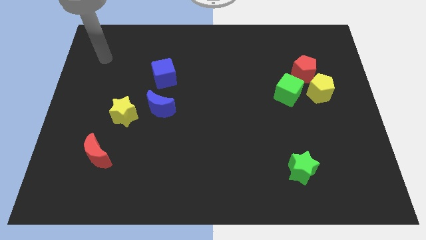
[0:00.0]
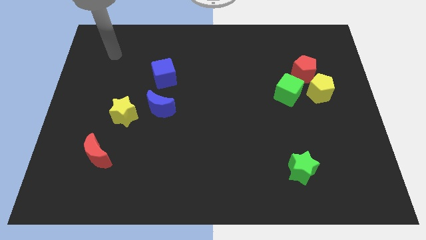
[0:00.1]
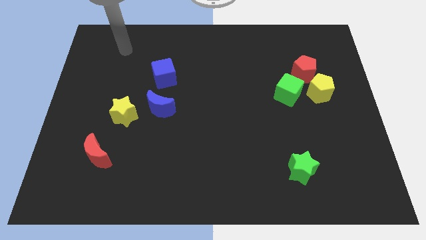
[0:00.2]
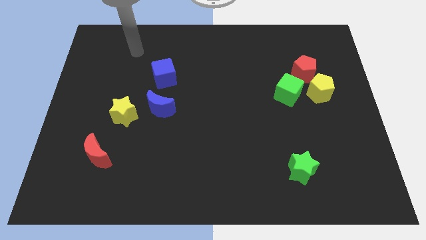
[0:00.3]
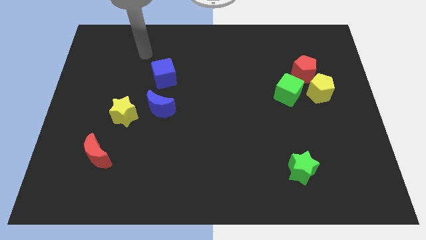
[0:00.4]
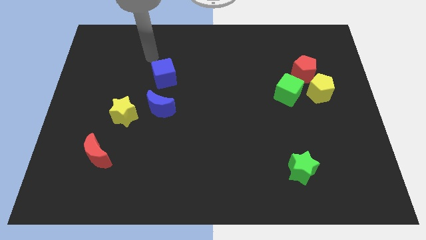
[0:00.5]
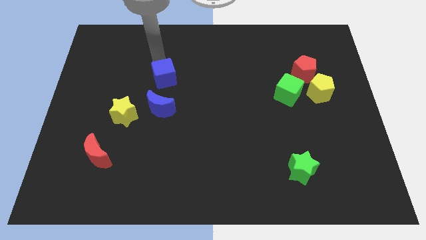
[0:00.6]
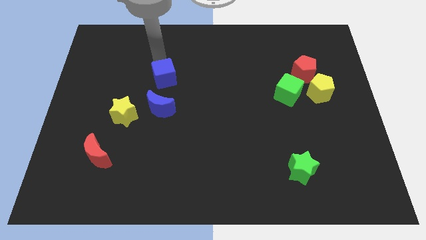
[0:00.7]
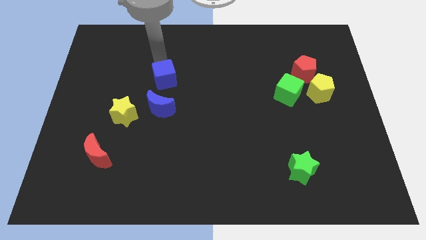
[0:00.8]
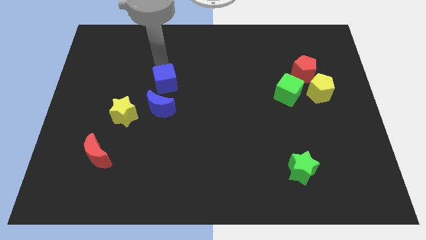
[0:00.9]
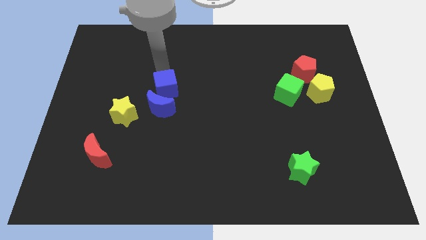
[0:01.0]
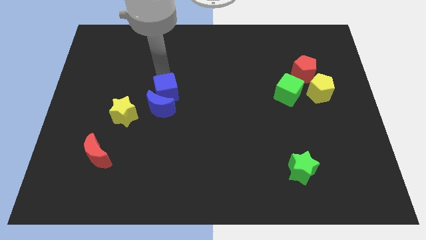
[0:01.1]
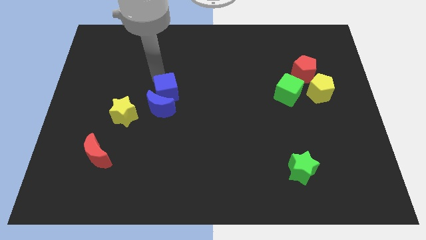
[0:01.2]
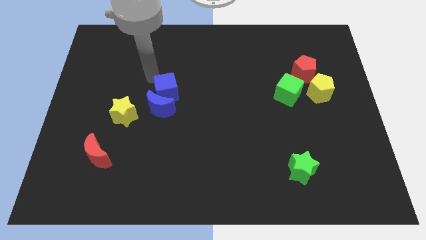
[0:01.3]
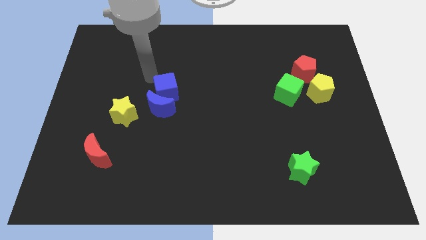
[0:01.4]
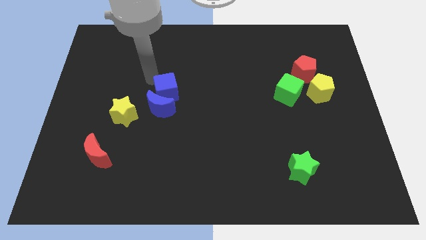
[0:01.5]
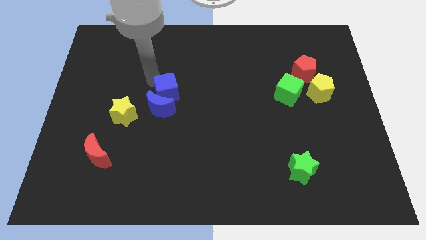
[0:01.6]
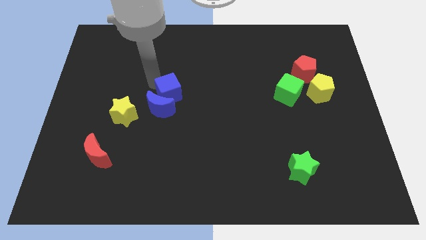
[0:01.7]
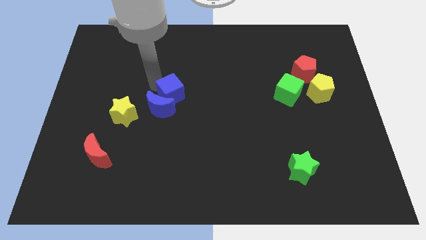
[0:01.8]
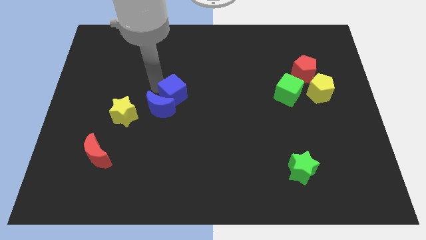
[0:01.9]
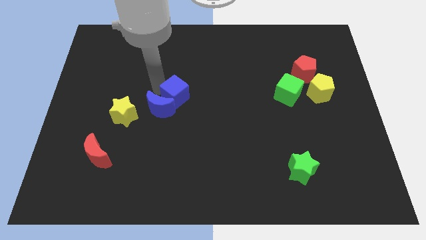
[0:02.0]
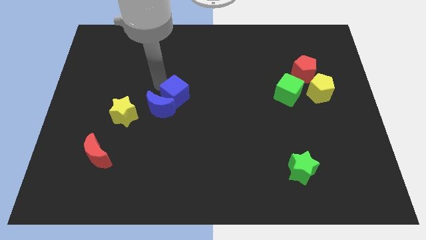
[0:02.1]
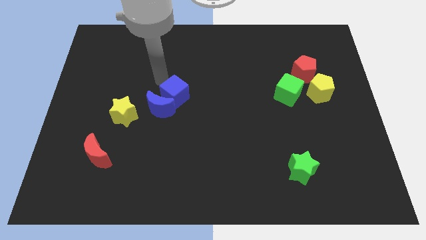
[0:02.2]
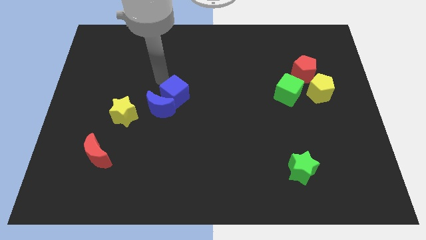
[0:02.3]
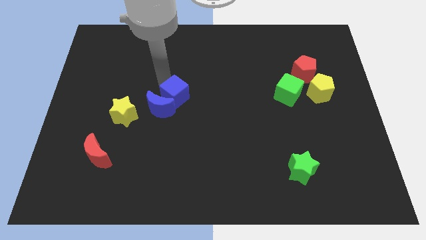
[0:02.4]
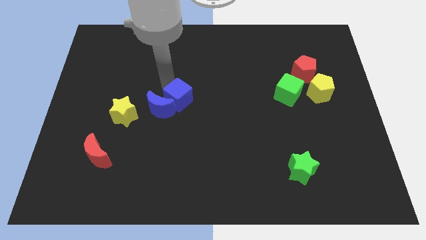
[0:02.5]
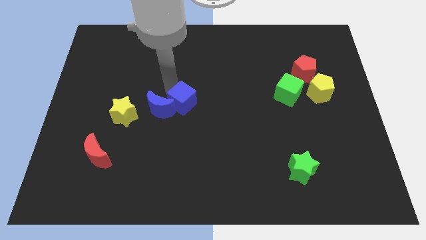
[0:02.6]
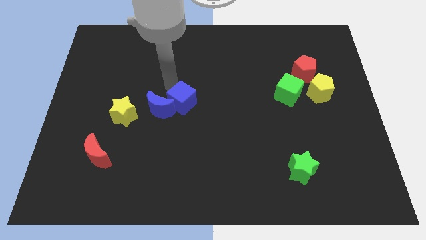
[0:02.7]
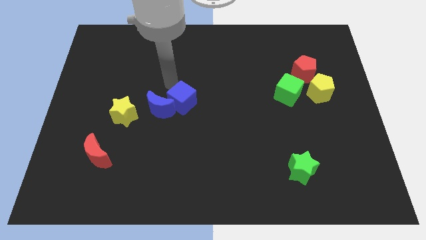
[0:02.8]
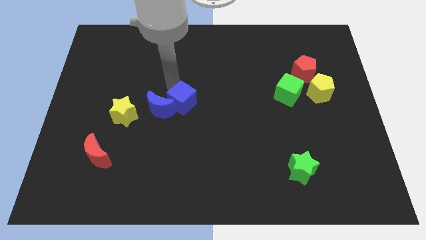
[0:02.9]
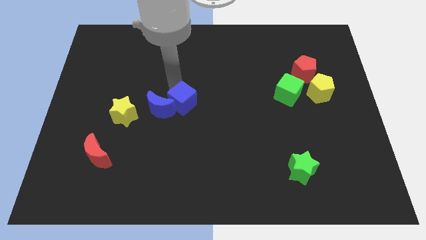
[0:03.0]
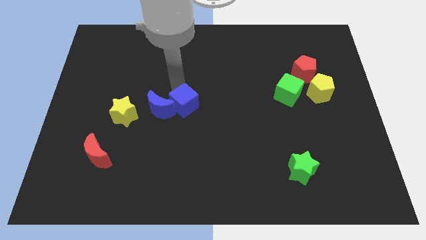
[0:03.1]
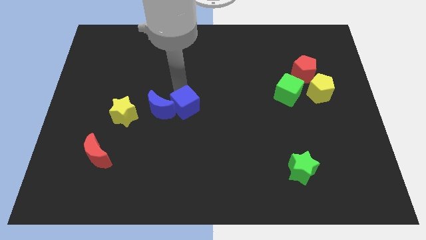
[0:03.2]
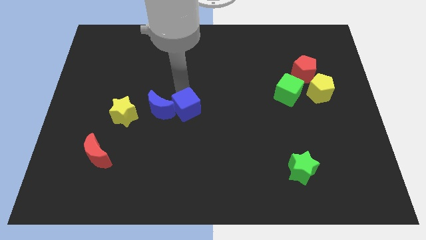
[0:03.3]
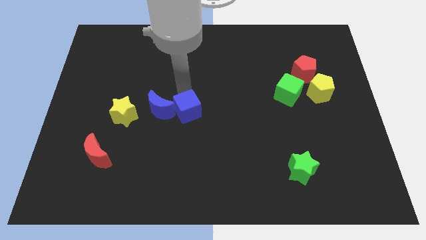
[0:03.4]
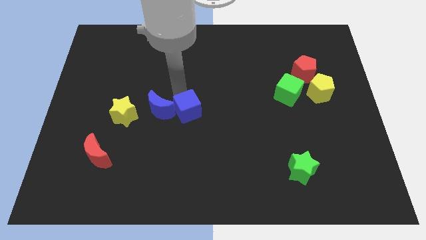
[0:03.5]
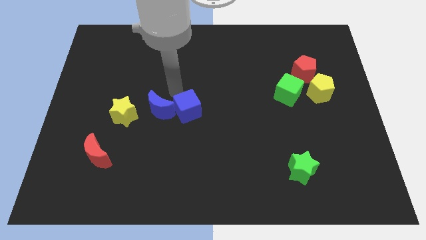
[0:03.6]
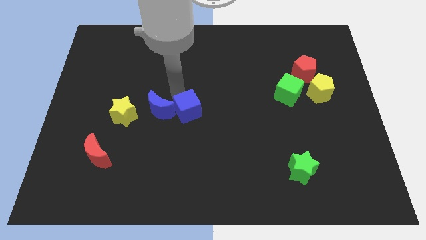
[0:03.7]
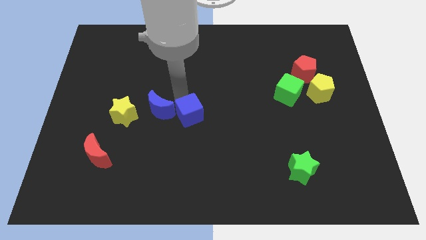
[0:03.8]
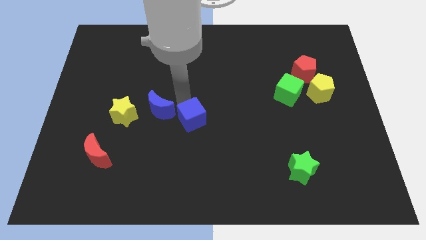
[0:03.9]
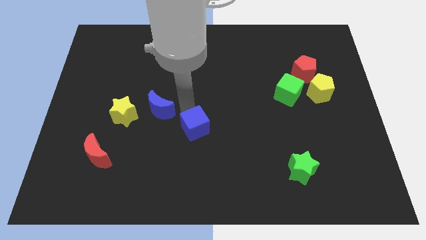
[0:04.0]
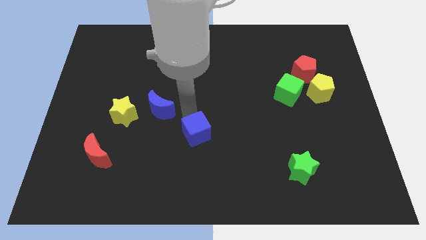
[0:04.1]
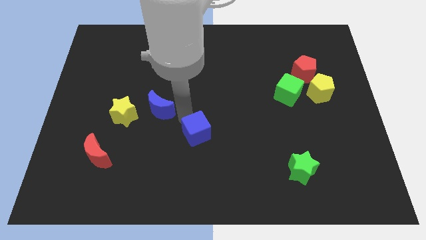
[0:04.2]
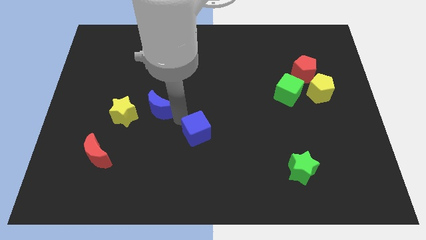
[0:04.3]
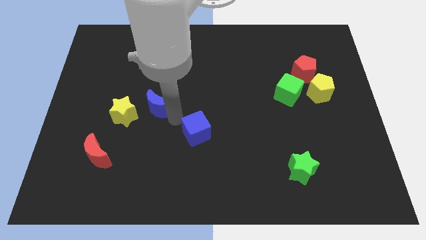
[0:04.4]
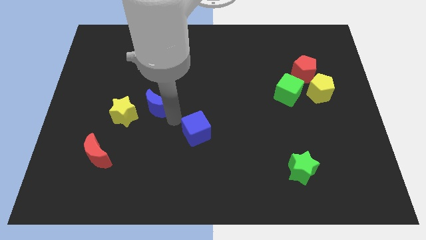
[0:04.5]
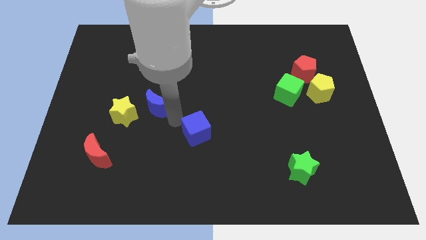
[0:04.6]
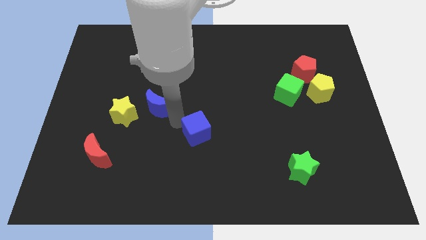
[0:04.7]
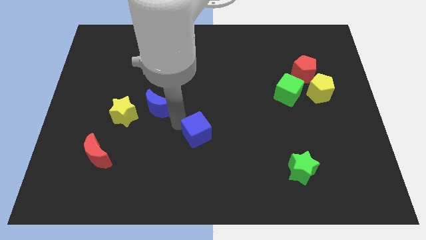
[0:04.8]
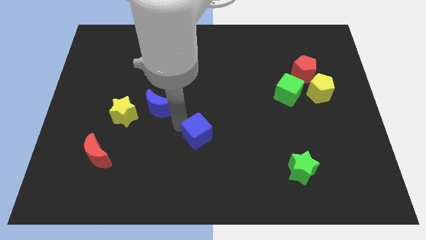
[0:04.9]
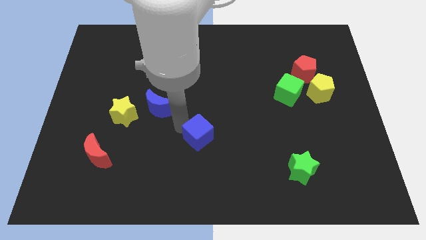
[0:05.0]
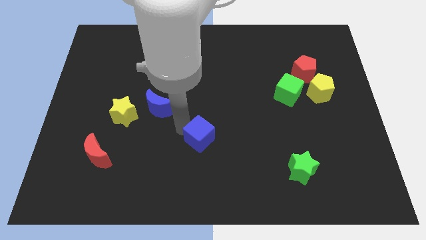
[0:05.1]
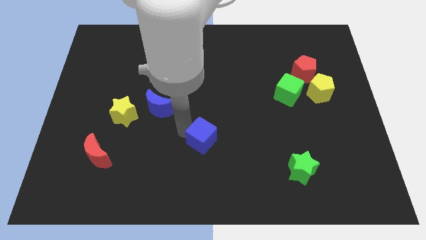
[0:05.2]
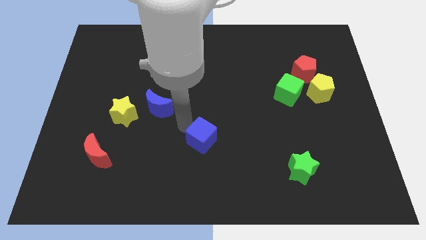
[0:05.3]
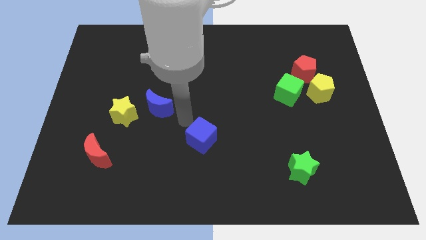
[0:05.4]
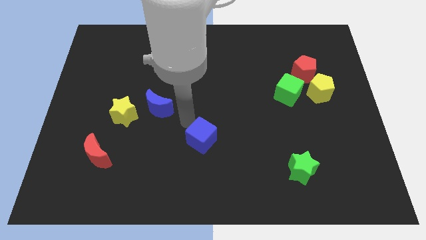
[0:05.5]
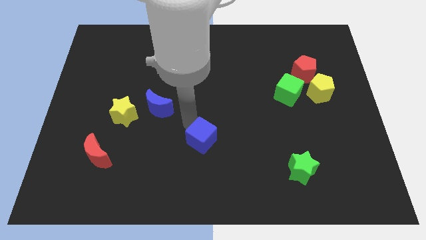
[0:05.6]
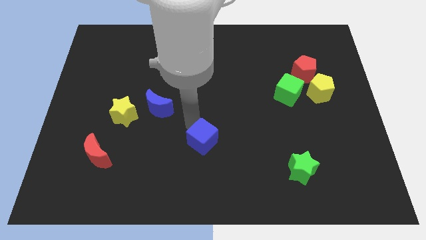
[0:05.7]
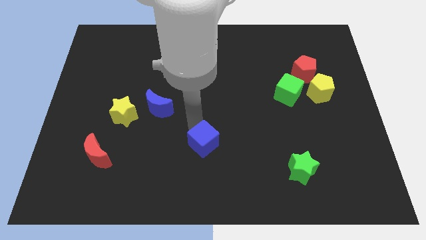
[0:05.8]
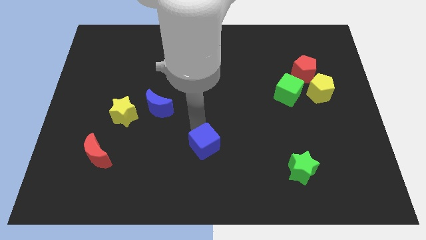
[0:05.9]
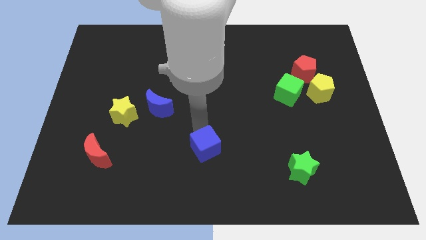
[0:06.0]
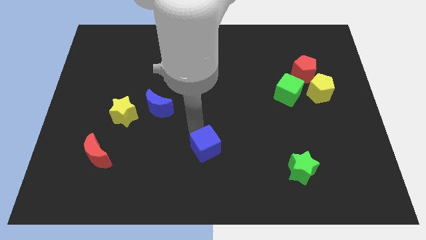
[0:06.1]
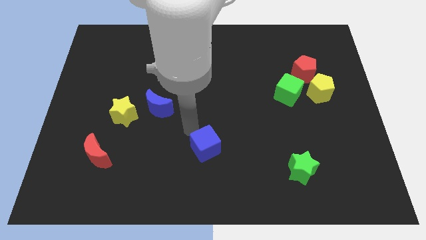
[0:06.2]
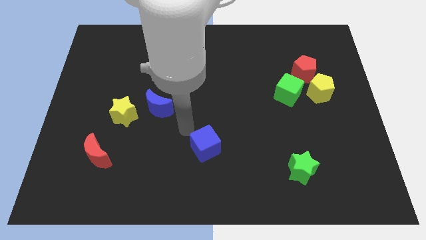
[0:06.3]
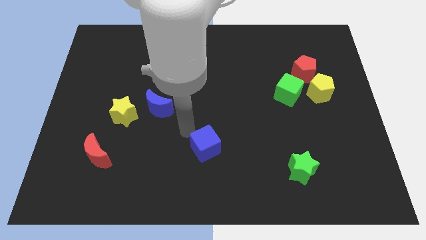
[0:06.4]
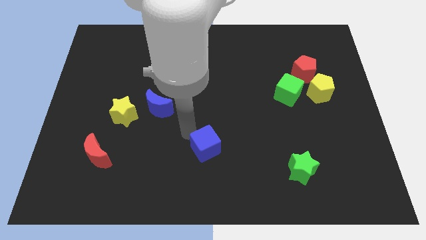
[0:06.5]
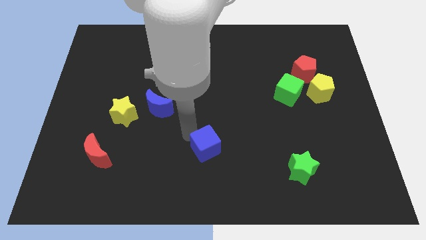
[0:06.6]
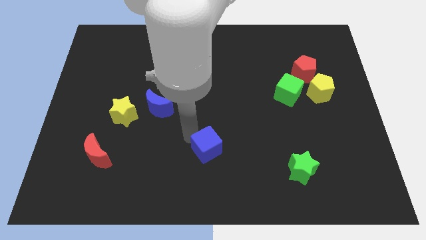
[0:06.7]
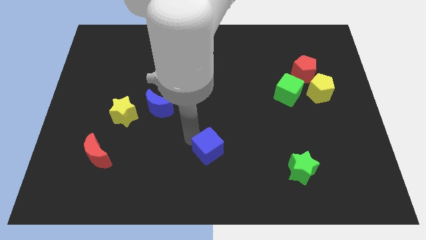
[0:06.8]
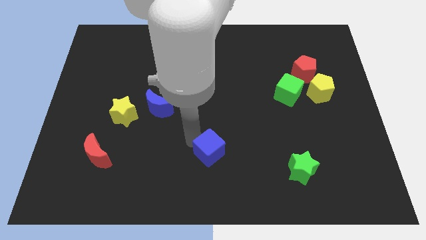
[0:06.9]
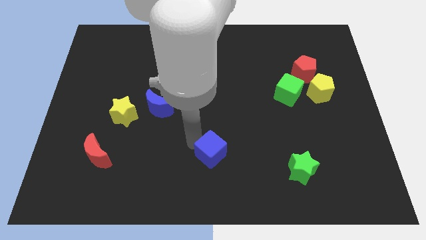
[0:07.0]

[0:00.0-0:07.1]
move the blue cube to the bottom
